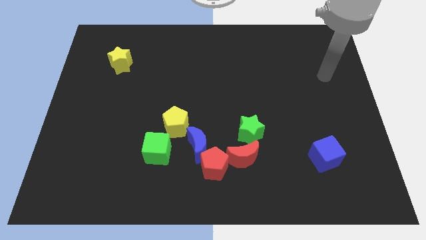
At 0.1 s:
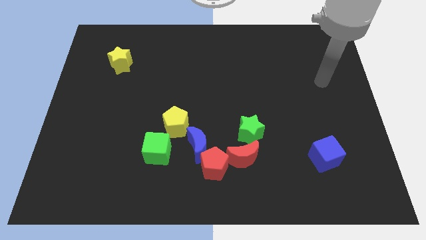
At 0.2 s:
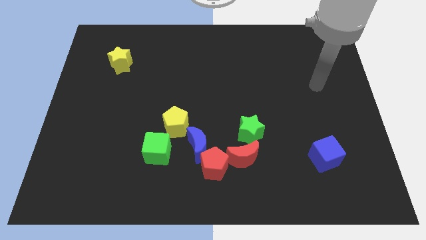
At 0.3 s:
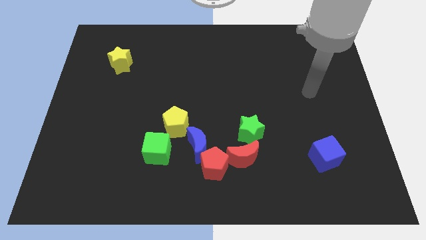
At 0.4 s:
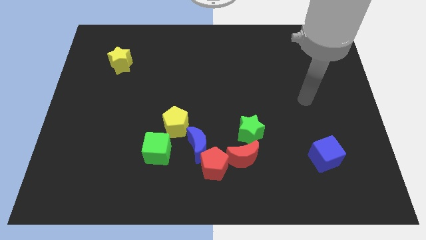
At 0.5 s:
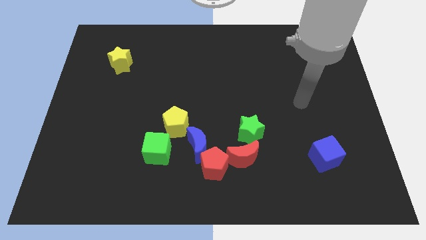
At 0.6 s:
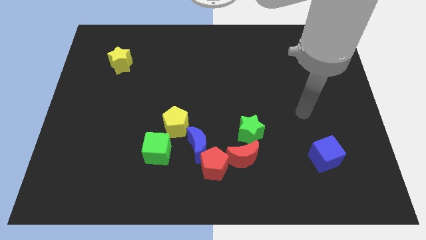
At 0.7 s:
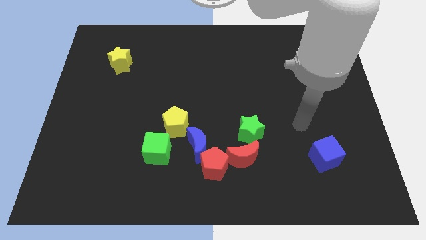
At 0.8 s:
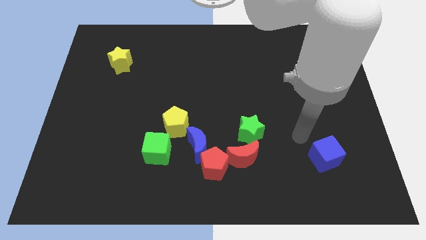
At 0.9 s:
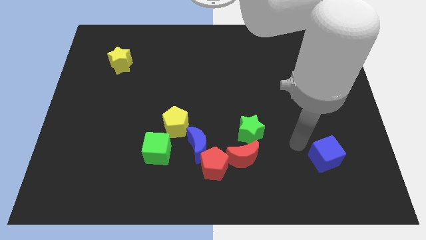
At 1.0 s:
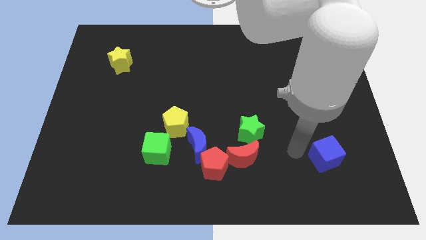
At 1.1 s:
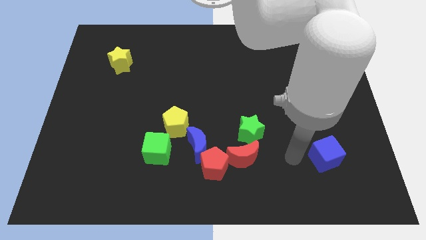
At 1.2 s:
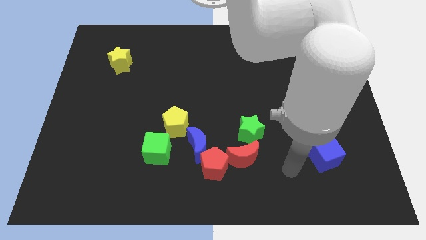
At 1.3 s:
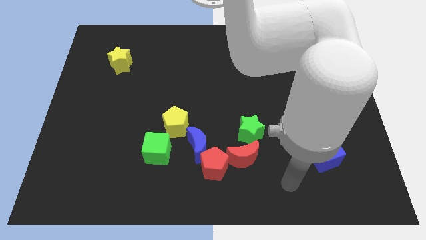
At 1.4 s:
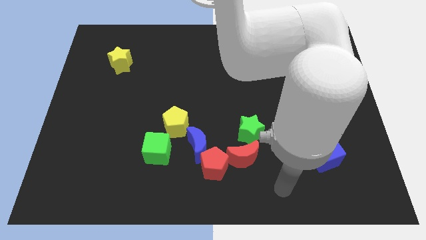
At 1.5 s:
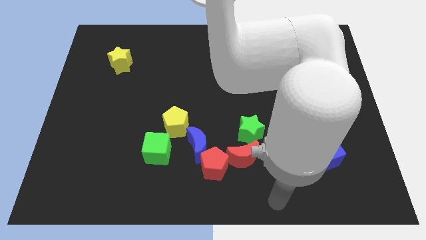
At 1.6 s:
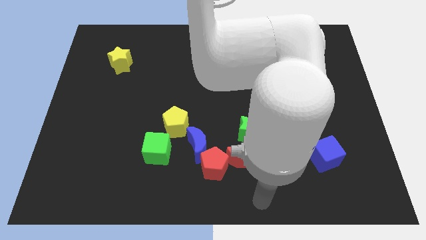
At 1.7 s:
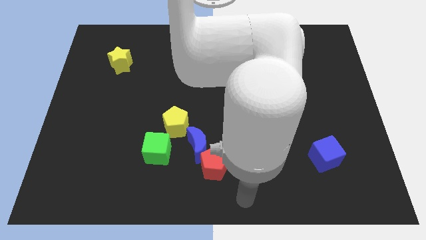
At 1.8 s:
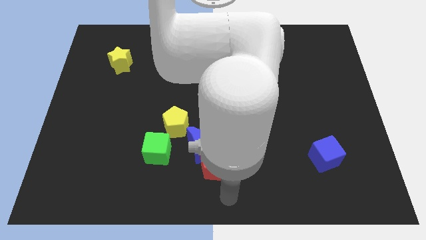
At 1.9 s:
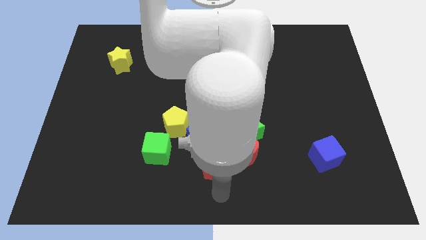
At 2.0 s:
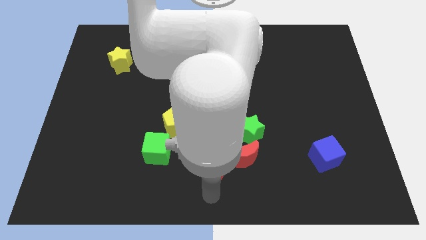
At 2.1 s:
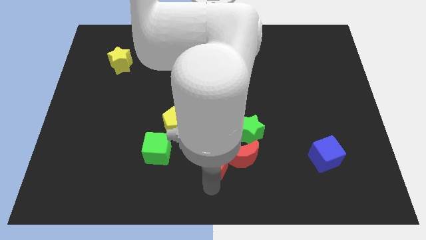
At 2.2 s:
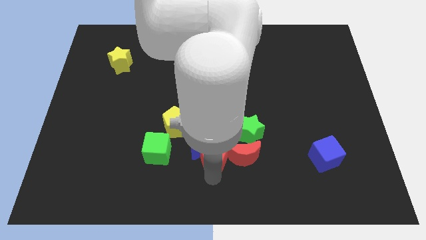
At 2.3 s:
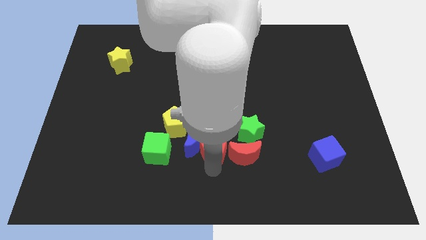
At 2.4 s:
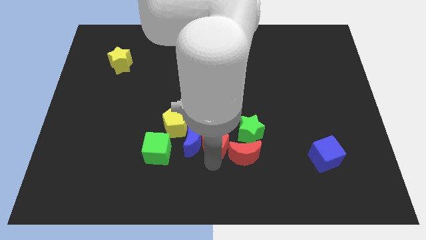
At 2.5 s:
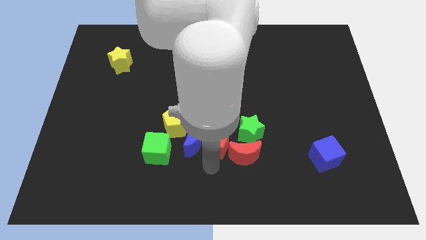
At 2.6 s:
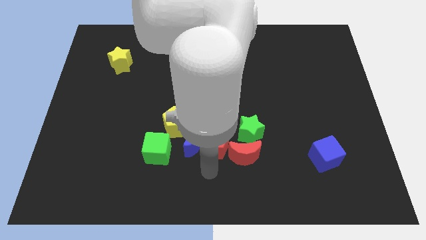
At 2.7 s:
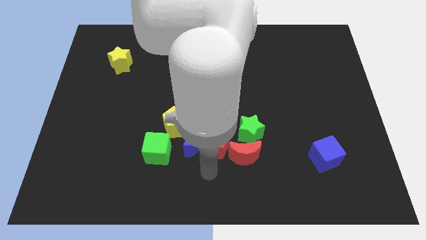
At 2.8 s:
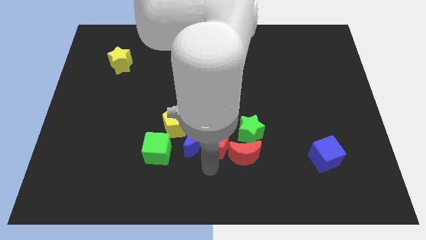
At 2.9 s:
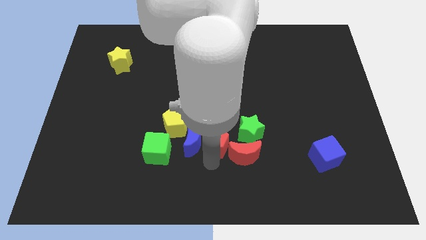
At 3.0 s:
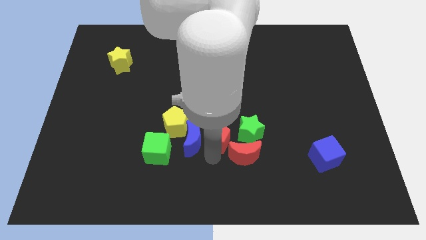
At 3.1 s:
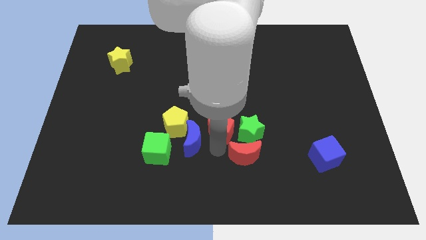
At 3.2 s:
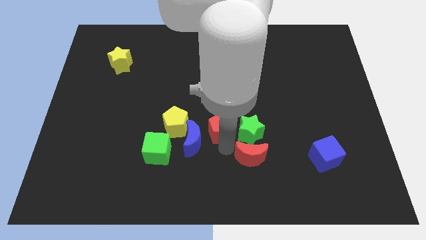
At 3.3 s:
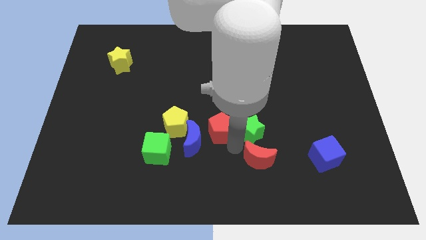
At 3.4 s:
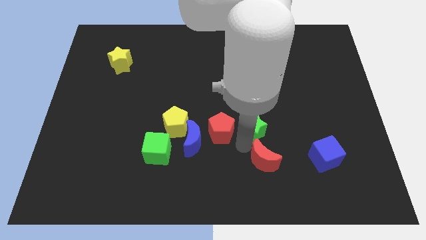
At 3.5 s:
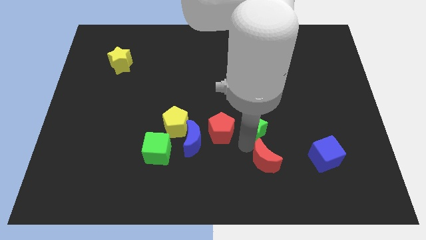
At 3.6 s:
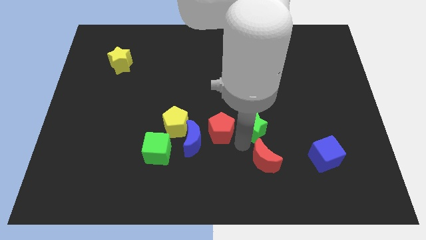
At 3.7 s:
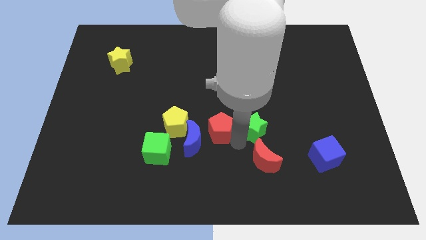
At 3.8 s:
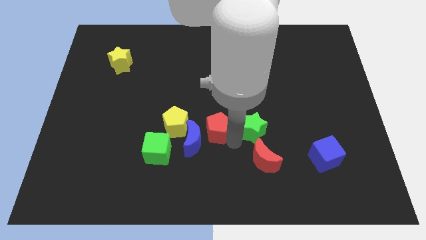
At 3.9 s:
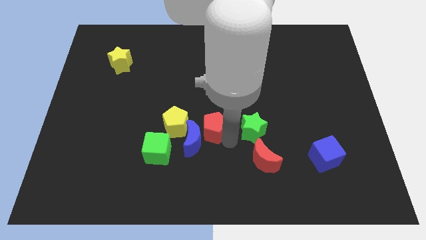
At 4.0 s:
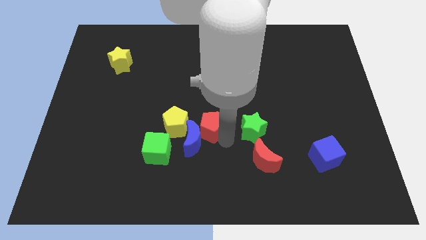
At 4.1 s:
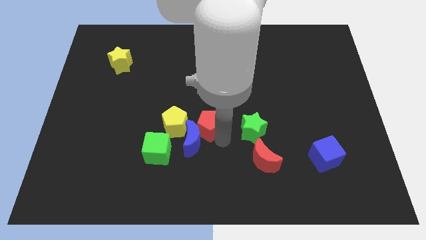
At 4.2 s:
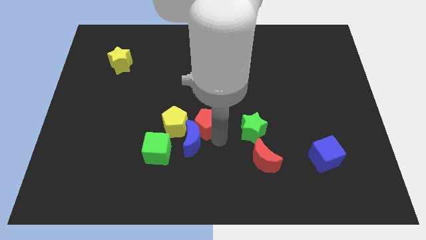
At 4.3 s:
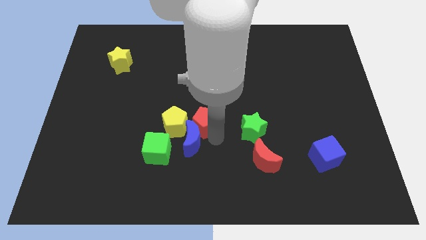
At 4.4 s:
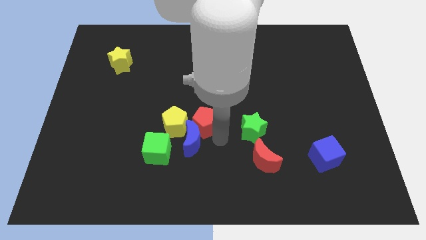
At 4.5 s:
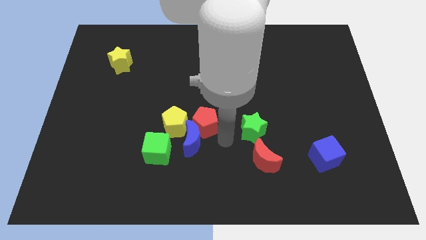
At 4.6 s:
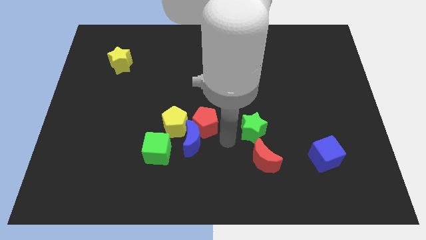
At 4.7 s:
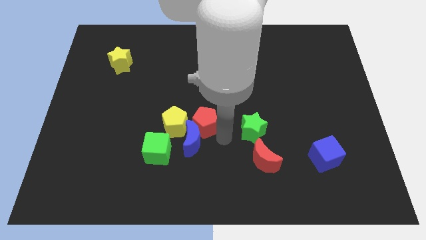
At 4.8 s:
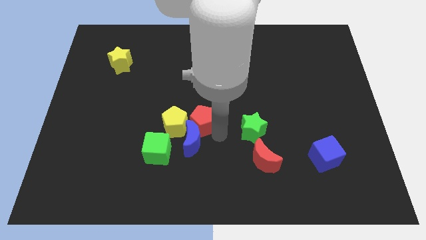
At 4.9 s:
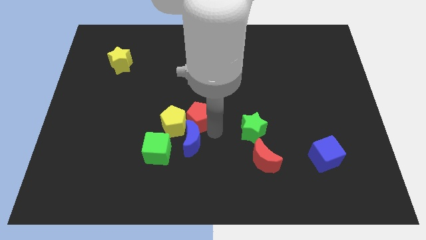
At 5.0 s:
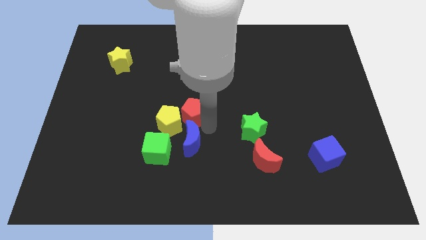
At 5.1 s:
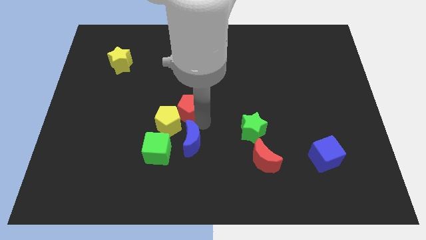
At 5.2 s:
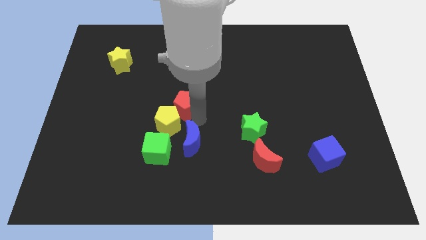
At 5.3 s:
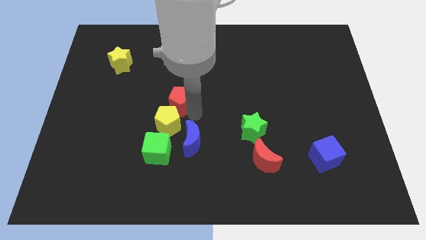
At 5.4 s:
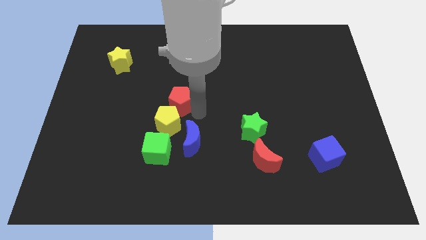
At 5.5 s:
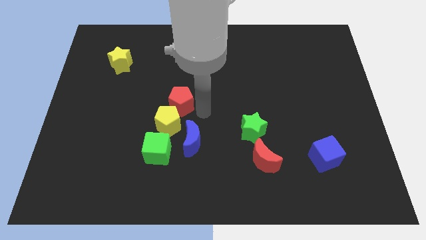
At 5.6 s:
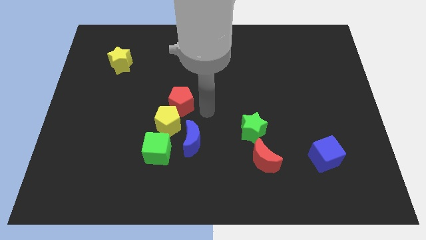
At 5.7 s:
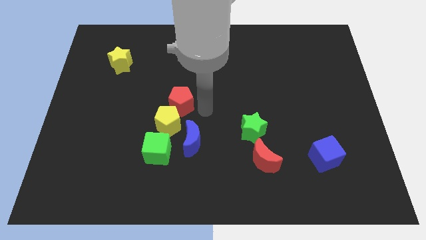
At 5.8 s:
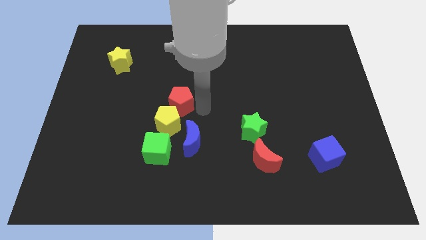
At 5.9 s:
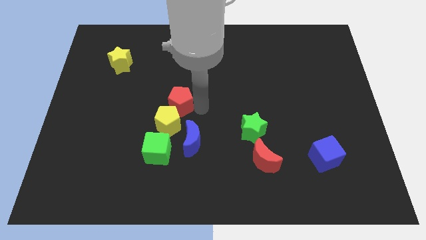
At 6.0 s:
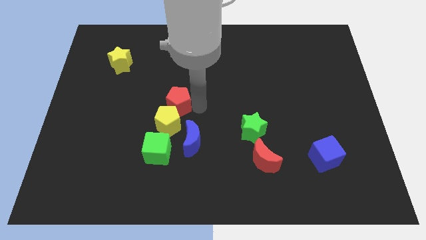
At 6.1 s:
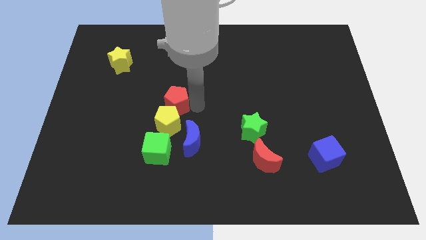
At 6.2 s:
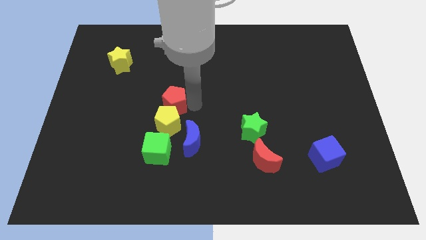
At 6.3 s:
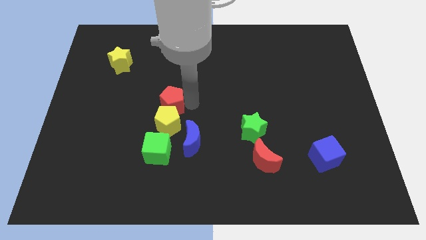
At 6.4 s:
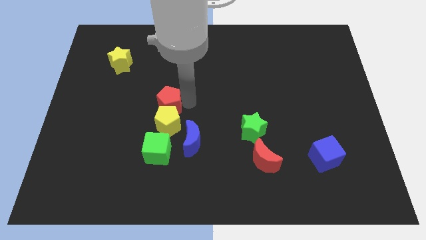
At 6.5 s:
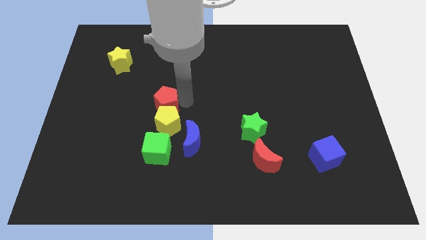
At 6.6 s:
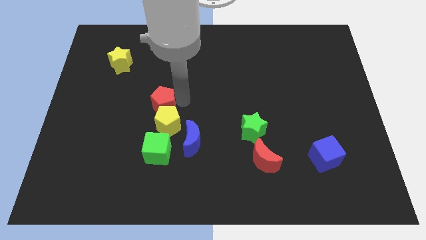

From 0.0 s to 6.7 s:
slide the red pentagon diagonally up and left

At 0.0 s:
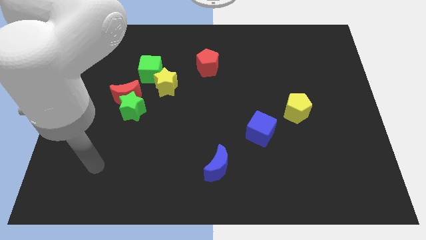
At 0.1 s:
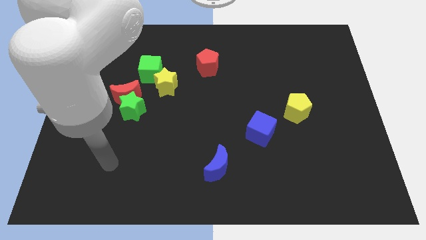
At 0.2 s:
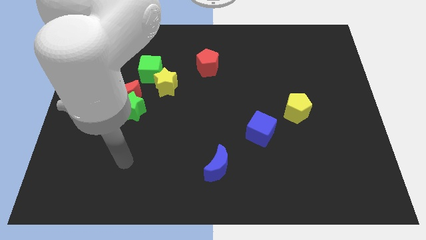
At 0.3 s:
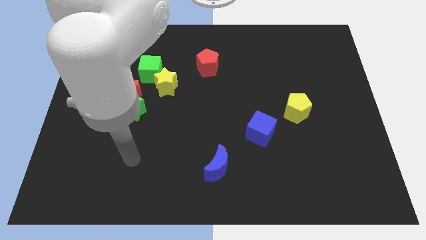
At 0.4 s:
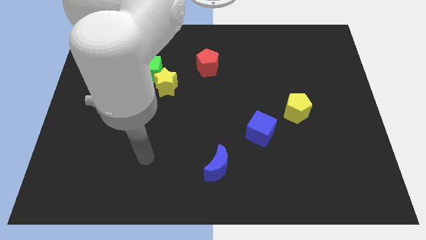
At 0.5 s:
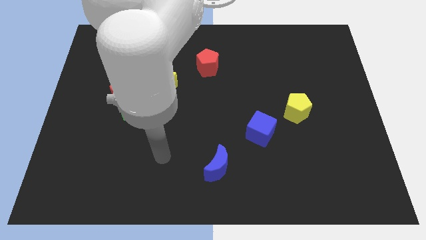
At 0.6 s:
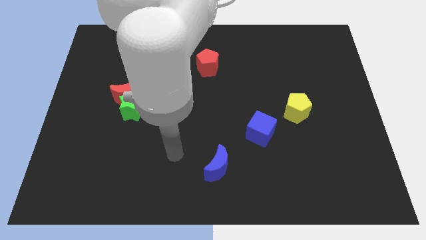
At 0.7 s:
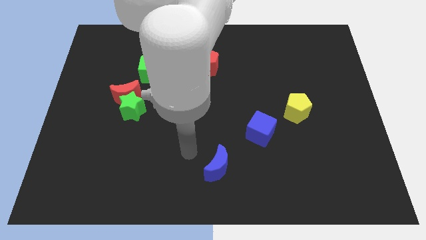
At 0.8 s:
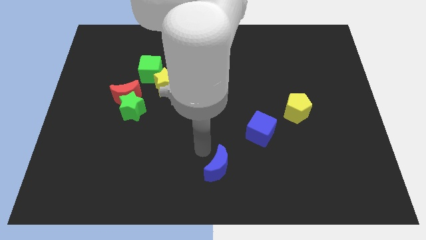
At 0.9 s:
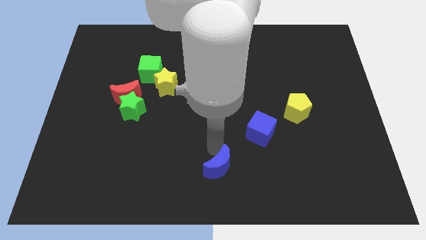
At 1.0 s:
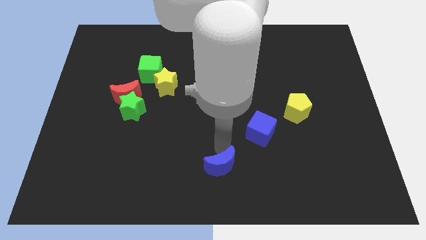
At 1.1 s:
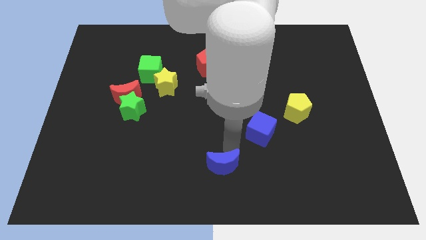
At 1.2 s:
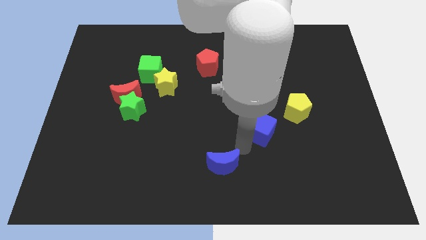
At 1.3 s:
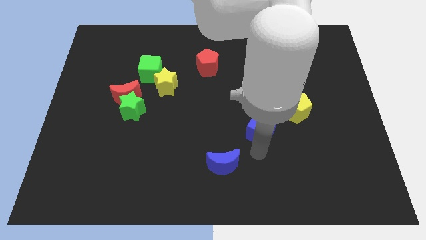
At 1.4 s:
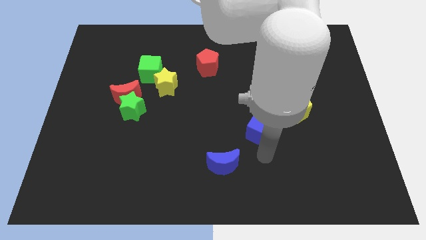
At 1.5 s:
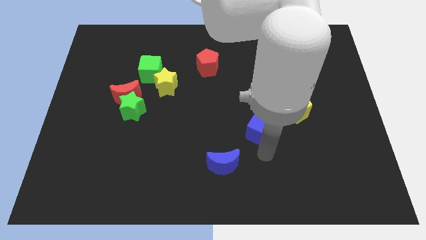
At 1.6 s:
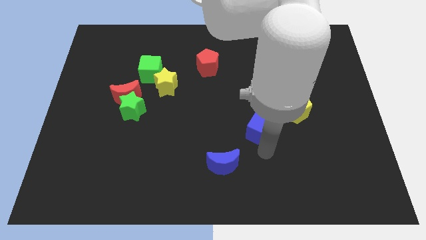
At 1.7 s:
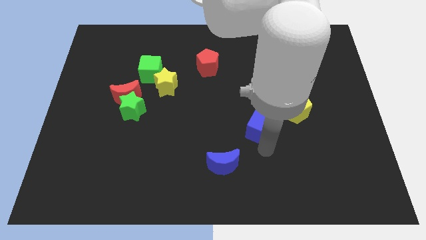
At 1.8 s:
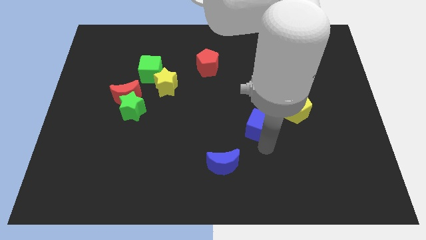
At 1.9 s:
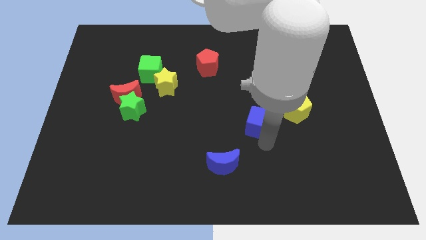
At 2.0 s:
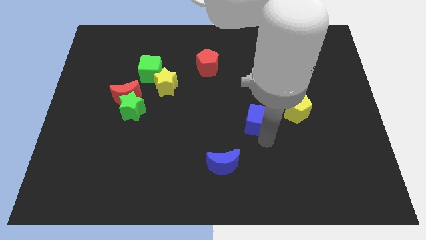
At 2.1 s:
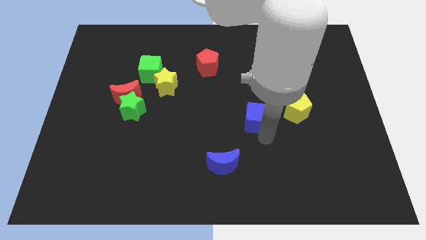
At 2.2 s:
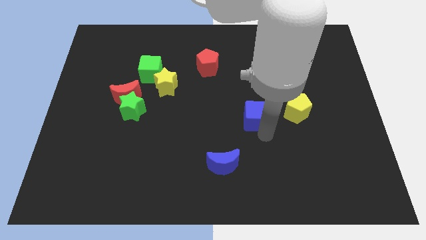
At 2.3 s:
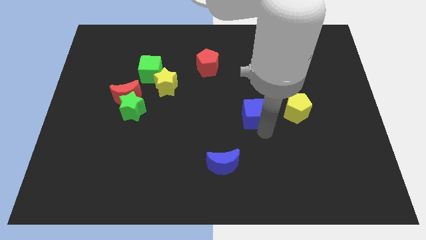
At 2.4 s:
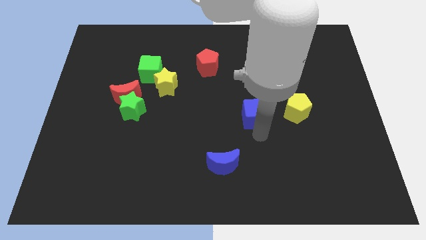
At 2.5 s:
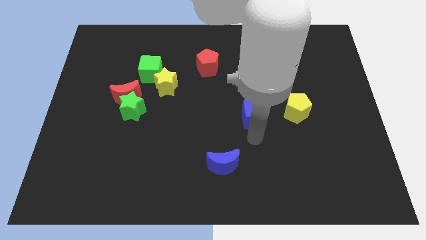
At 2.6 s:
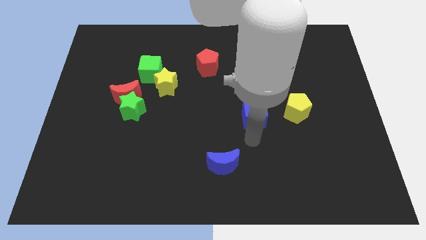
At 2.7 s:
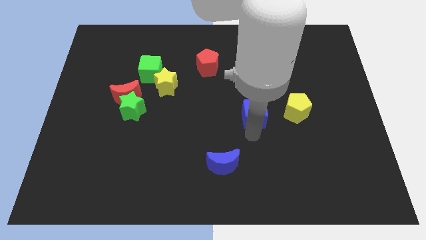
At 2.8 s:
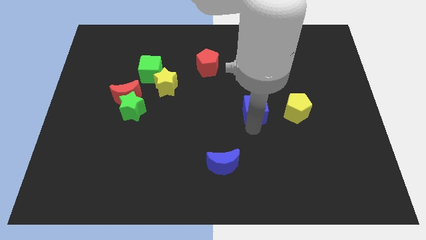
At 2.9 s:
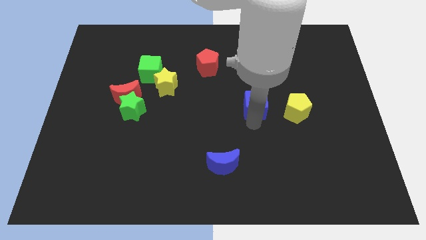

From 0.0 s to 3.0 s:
push the blue cube up a bit
